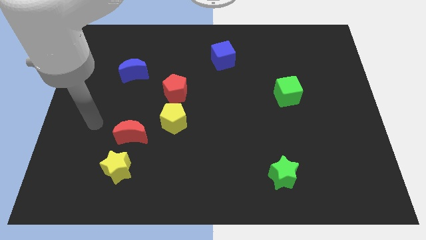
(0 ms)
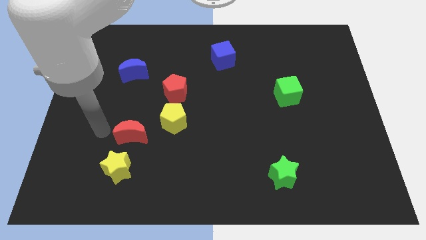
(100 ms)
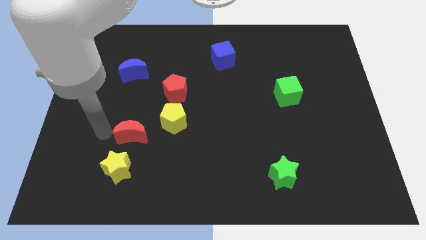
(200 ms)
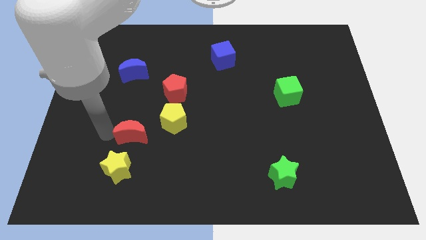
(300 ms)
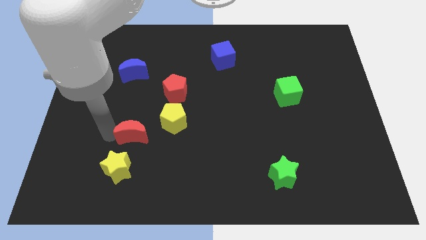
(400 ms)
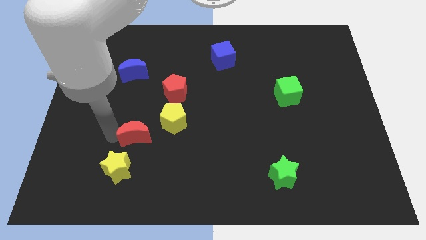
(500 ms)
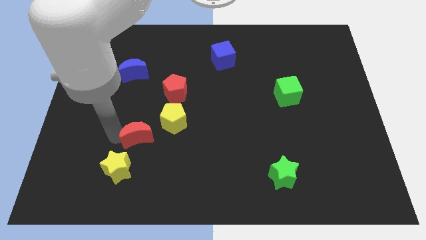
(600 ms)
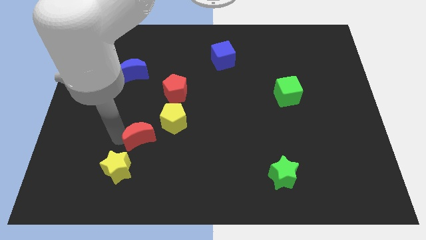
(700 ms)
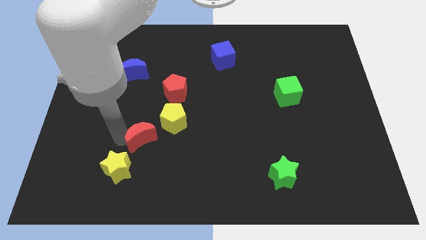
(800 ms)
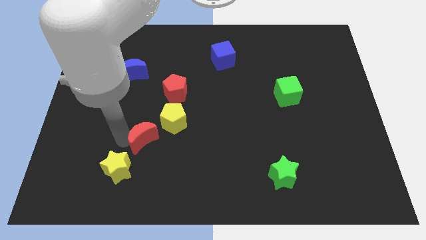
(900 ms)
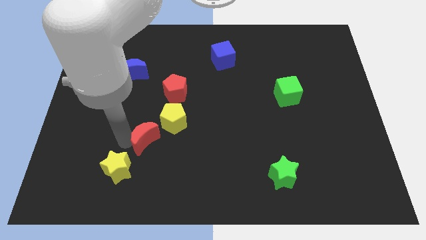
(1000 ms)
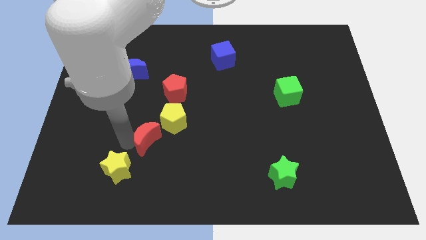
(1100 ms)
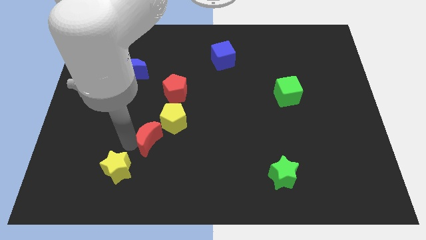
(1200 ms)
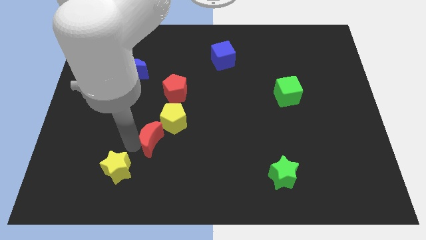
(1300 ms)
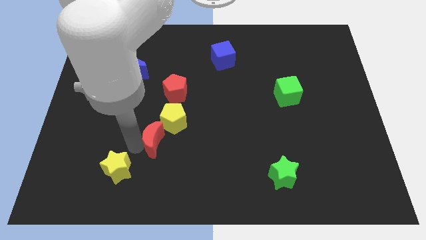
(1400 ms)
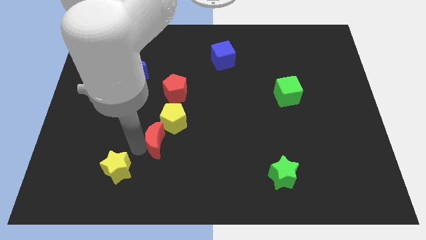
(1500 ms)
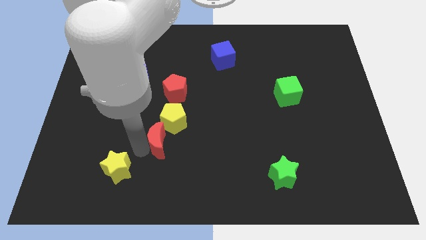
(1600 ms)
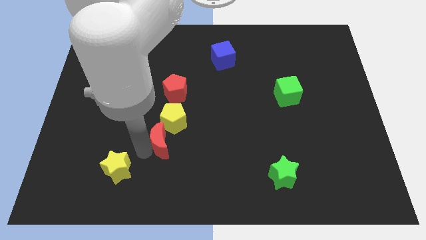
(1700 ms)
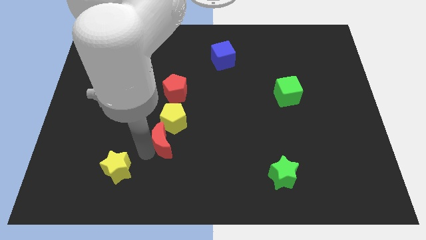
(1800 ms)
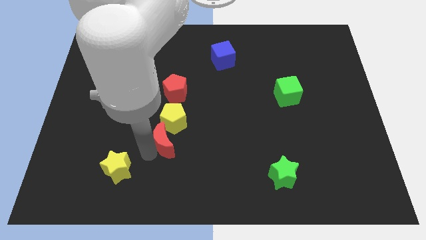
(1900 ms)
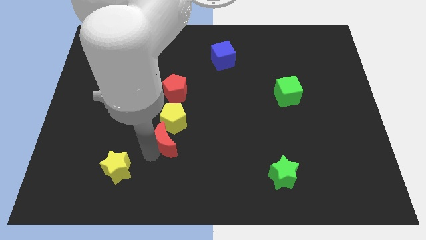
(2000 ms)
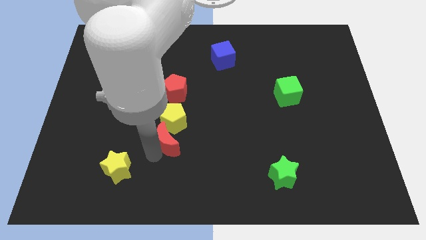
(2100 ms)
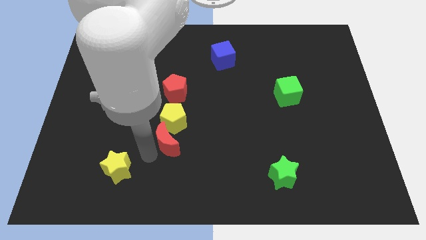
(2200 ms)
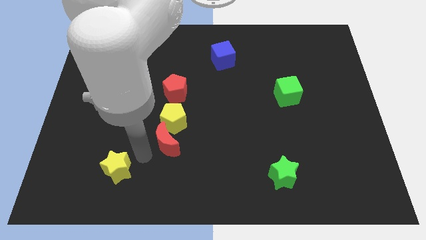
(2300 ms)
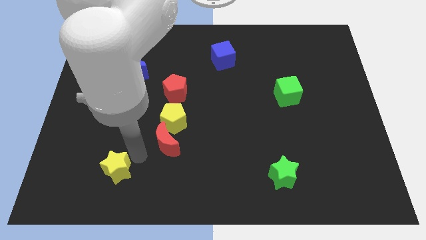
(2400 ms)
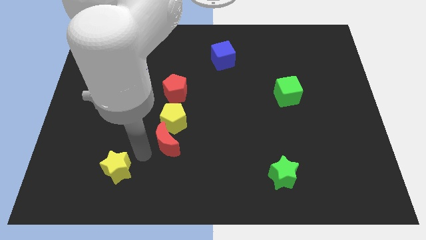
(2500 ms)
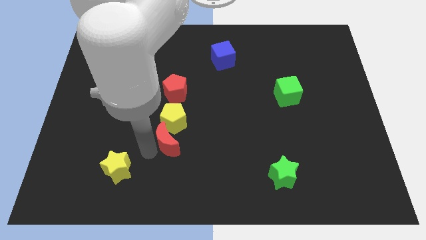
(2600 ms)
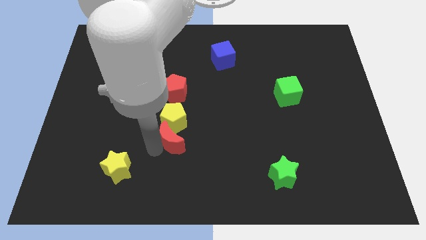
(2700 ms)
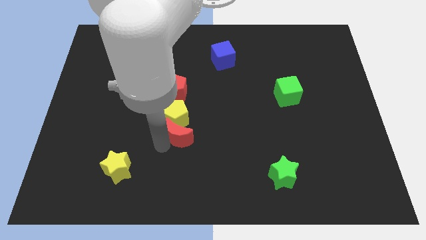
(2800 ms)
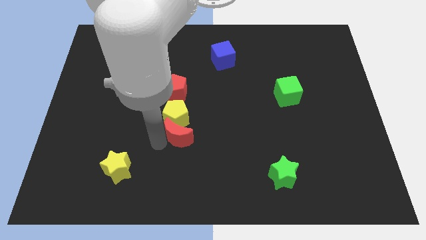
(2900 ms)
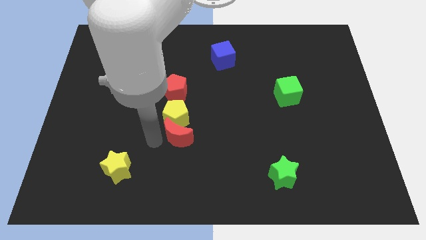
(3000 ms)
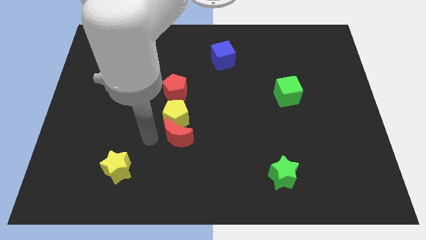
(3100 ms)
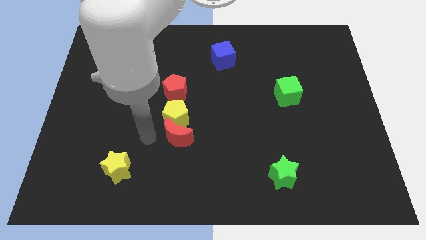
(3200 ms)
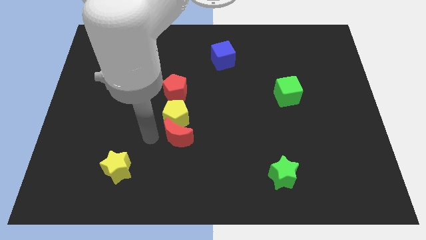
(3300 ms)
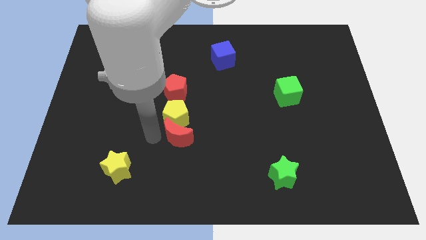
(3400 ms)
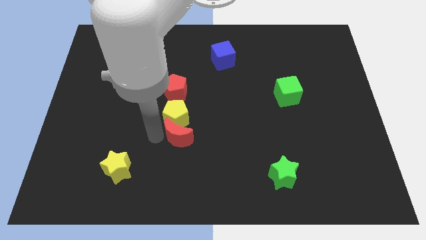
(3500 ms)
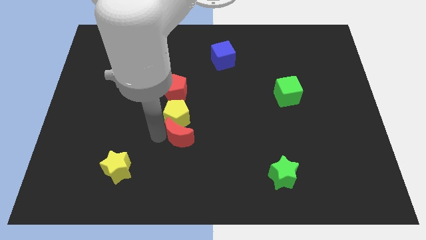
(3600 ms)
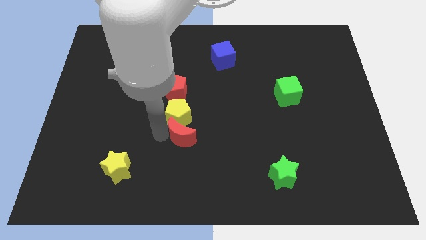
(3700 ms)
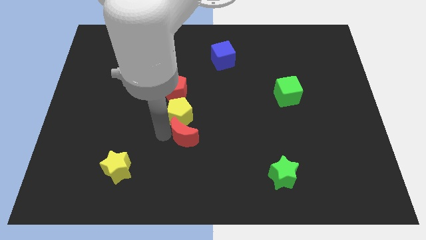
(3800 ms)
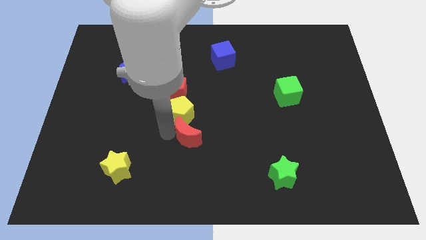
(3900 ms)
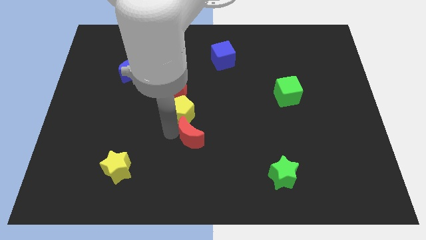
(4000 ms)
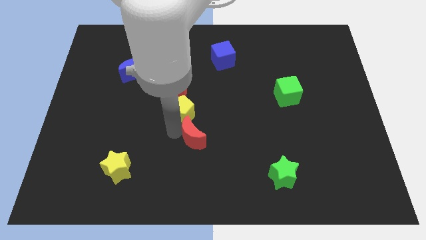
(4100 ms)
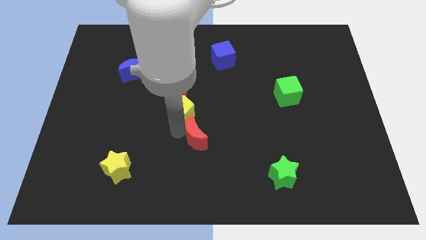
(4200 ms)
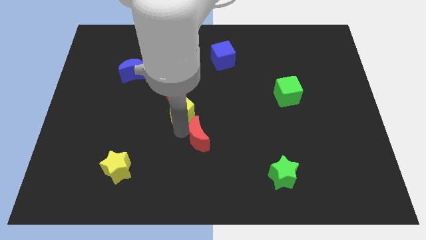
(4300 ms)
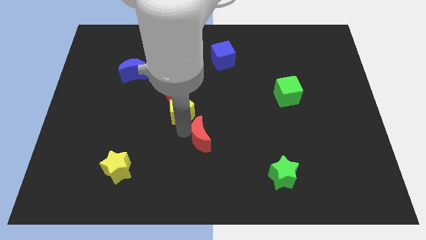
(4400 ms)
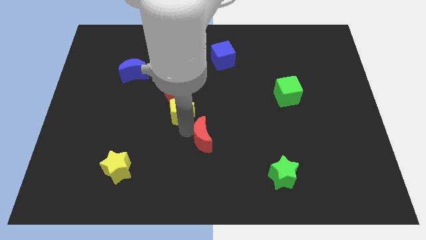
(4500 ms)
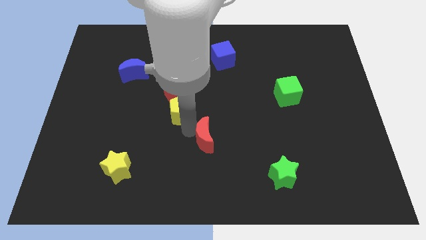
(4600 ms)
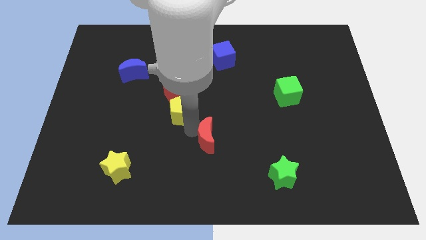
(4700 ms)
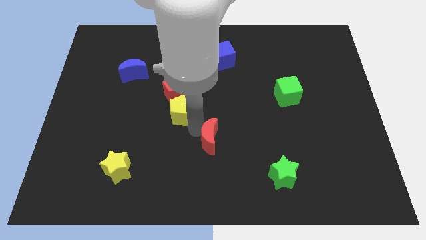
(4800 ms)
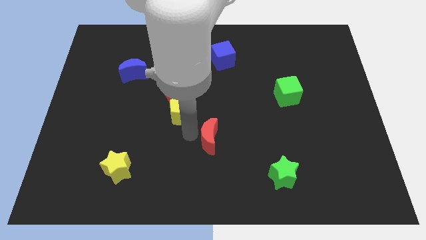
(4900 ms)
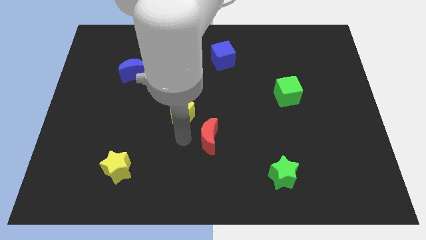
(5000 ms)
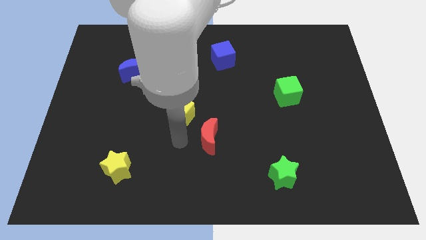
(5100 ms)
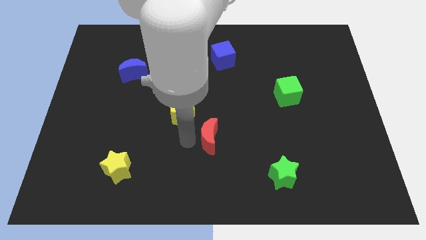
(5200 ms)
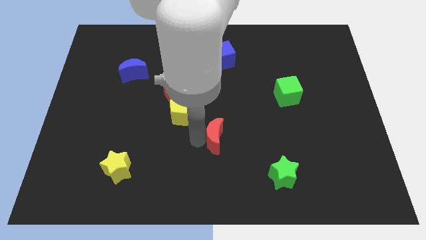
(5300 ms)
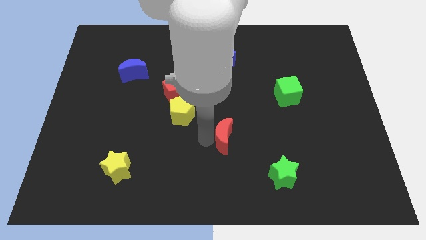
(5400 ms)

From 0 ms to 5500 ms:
move the red moon to the right

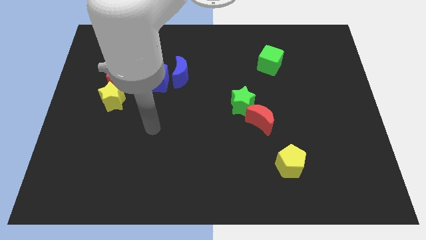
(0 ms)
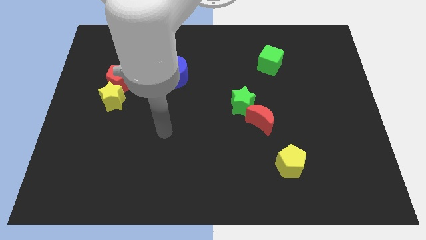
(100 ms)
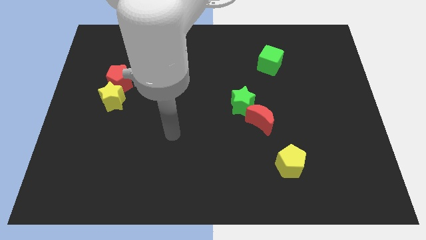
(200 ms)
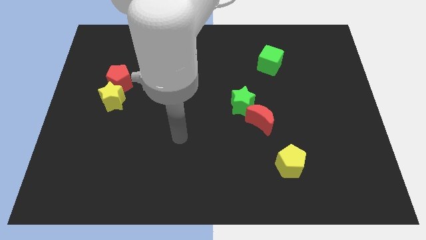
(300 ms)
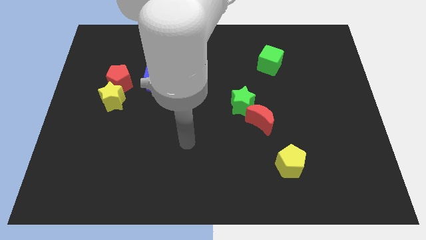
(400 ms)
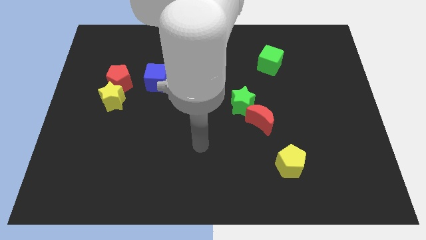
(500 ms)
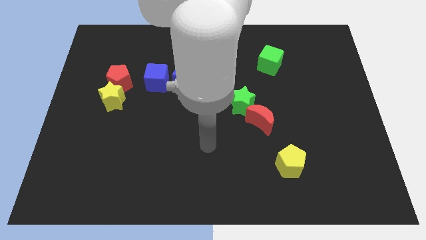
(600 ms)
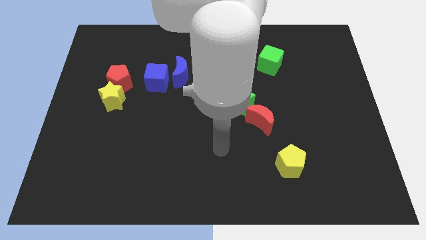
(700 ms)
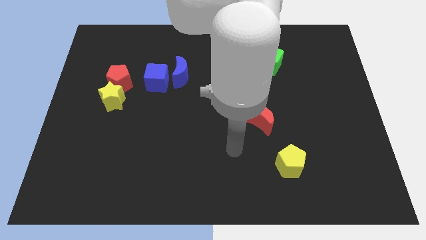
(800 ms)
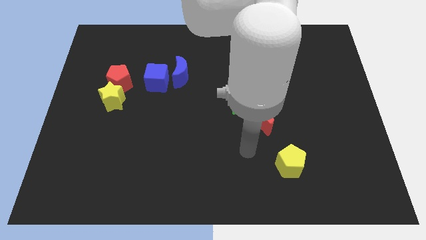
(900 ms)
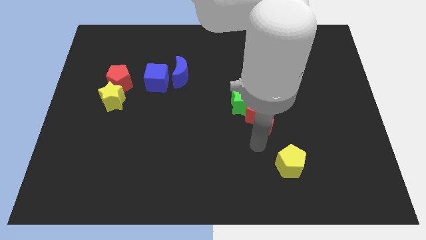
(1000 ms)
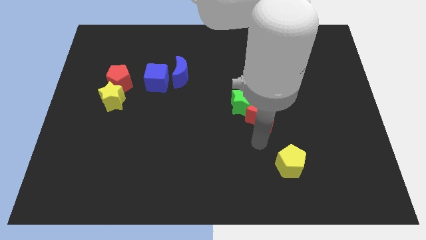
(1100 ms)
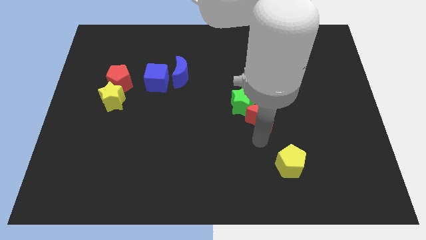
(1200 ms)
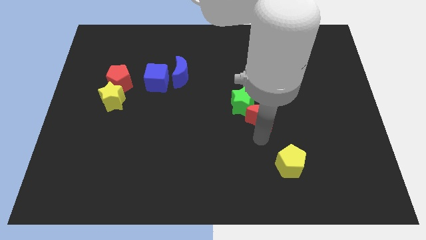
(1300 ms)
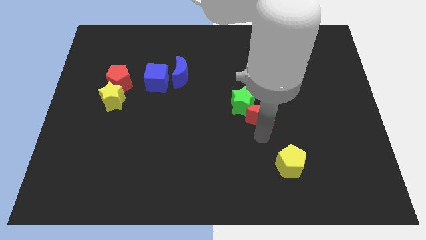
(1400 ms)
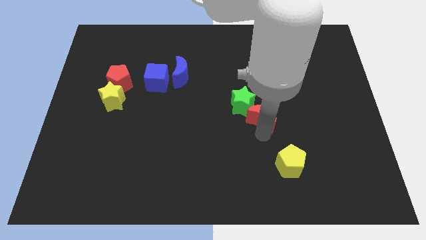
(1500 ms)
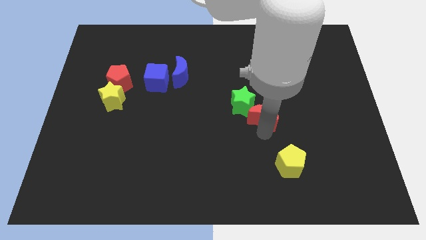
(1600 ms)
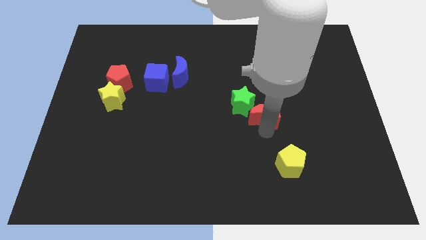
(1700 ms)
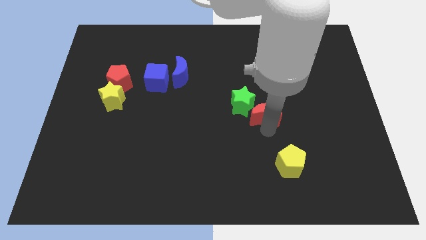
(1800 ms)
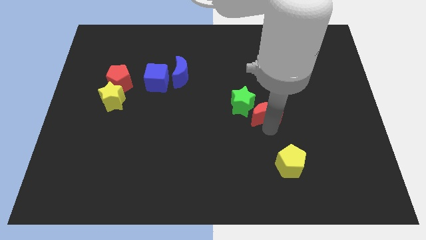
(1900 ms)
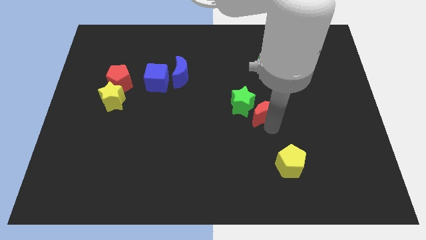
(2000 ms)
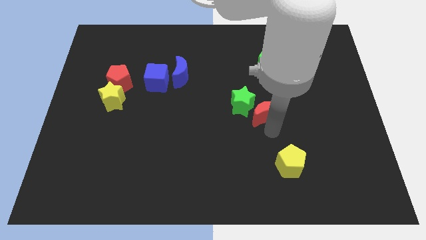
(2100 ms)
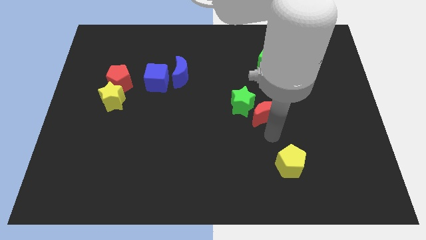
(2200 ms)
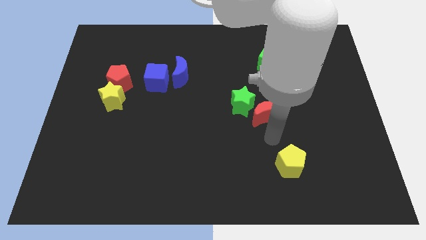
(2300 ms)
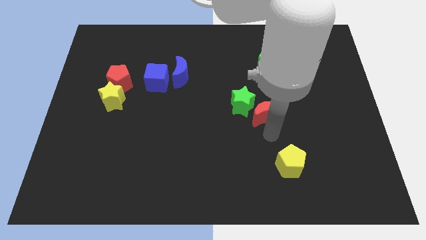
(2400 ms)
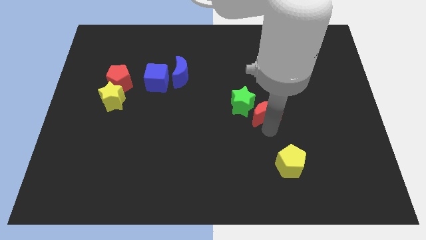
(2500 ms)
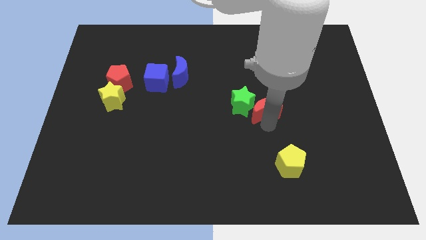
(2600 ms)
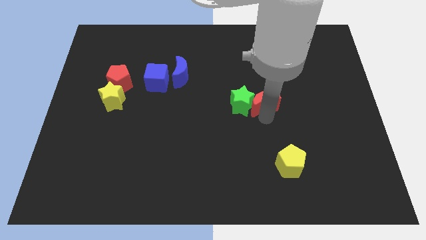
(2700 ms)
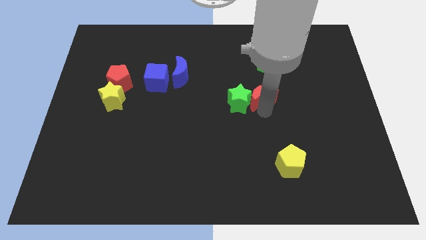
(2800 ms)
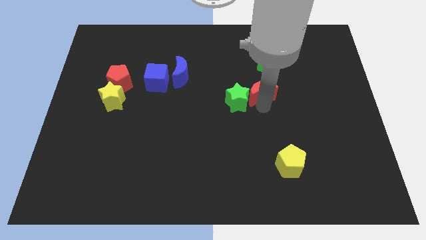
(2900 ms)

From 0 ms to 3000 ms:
move the red moon a little upwards
